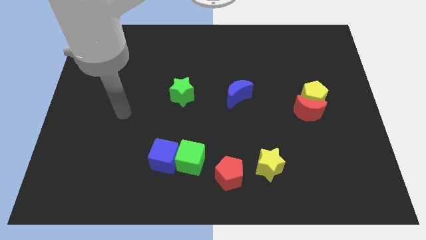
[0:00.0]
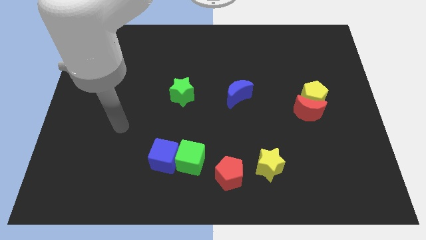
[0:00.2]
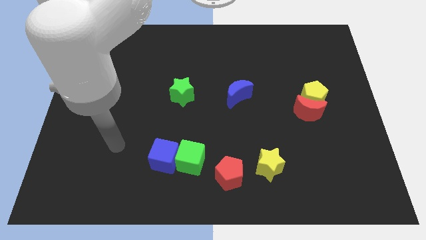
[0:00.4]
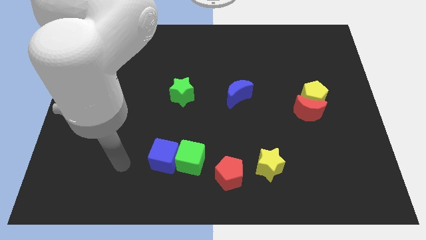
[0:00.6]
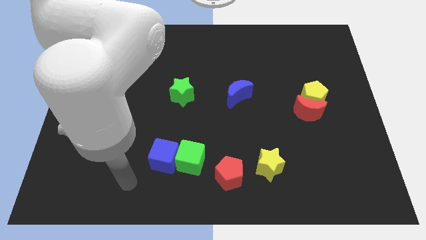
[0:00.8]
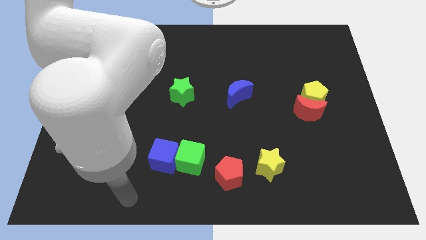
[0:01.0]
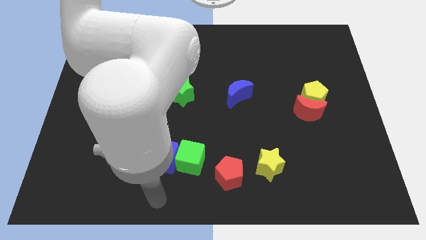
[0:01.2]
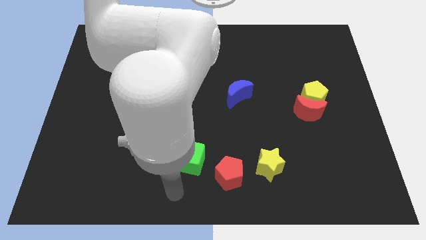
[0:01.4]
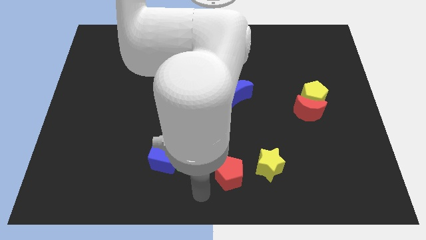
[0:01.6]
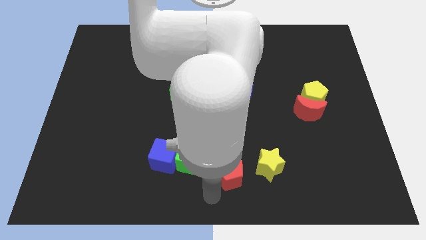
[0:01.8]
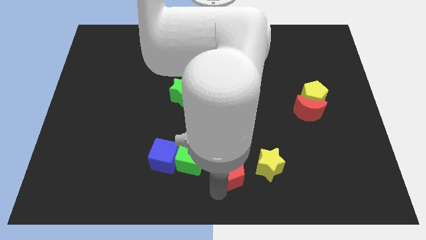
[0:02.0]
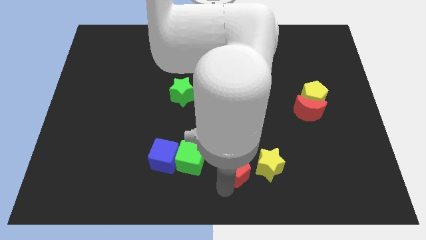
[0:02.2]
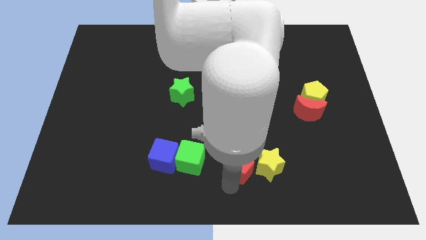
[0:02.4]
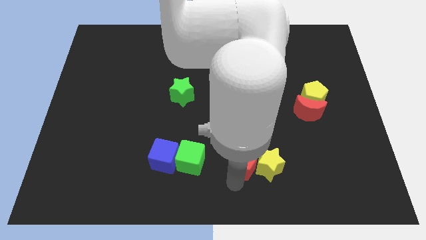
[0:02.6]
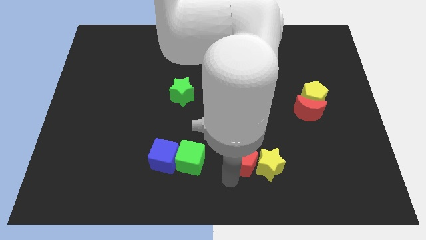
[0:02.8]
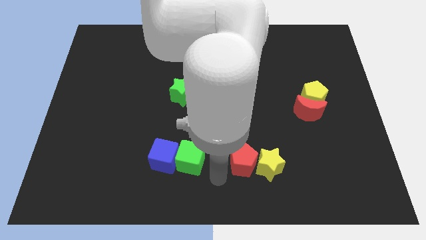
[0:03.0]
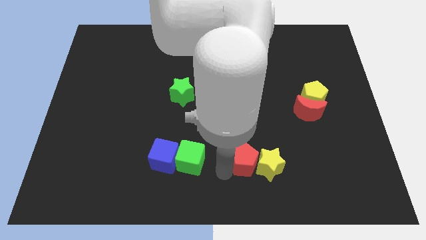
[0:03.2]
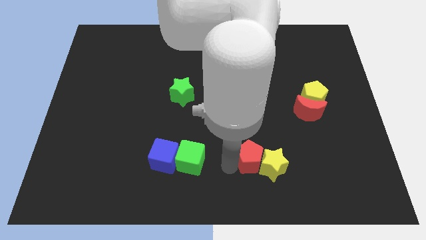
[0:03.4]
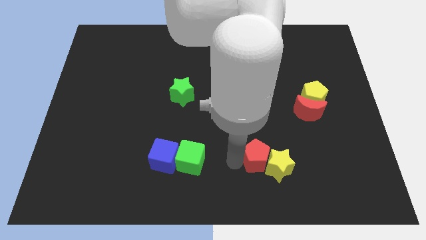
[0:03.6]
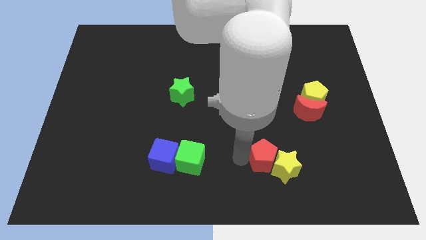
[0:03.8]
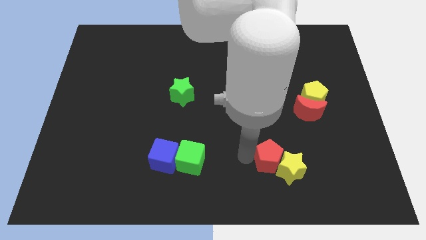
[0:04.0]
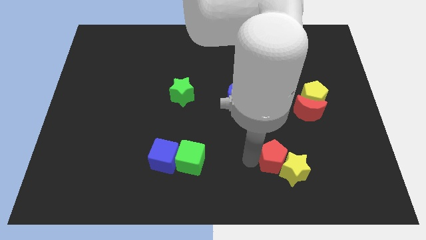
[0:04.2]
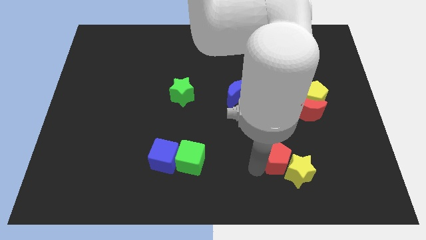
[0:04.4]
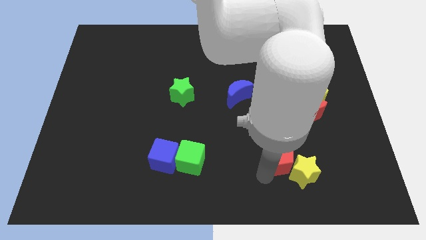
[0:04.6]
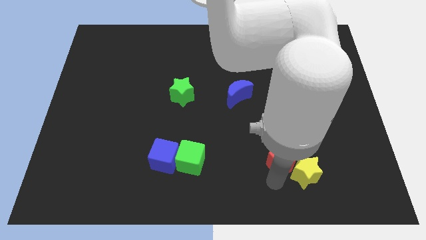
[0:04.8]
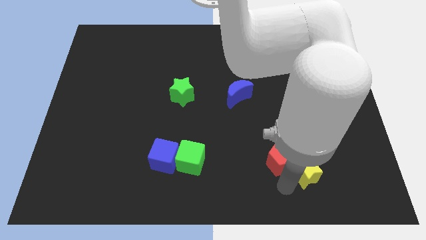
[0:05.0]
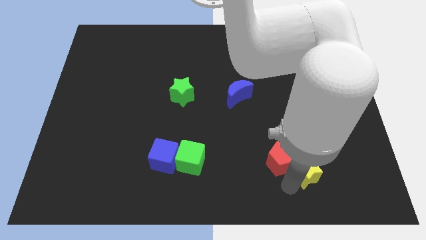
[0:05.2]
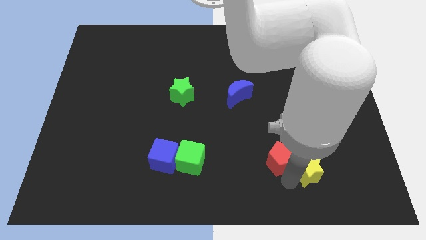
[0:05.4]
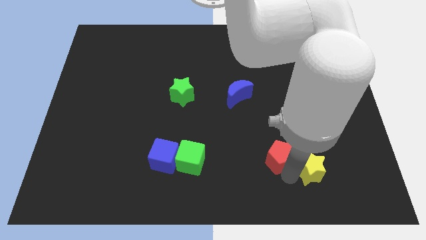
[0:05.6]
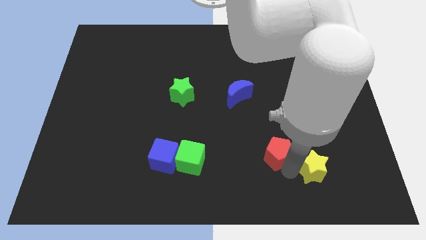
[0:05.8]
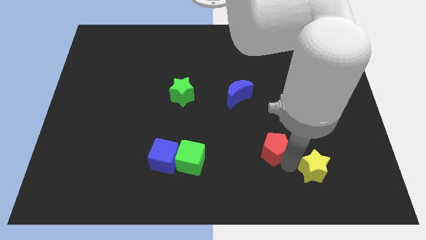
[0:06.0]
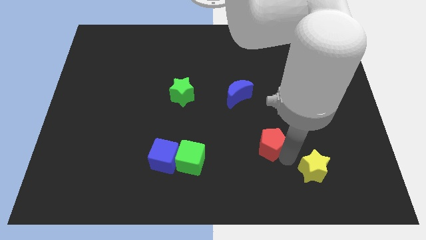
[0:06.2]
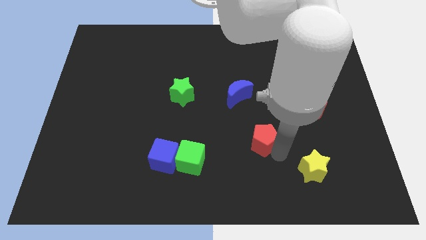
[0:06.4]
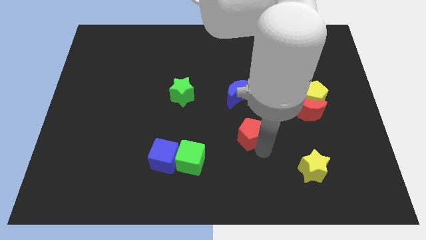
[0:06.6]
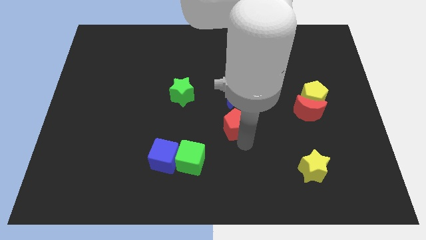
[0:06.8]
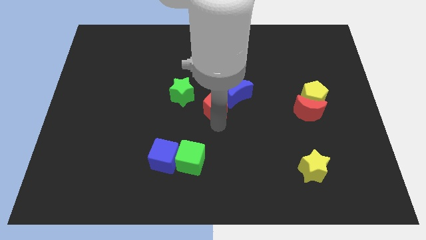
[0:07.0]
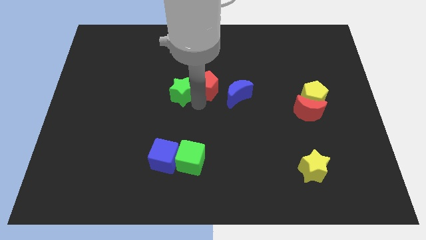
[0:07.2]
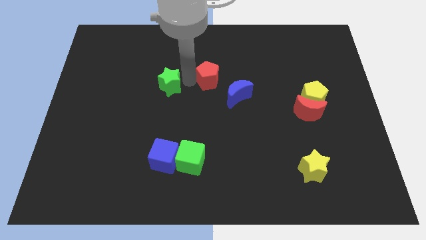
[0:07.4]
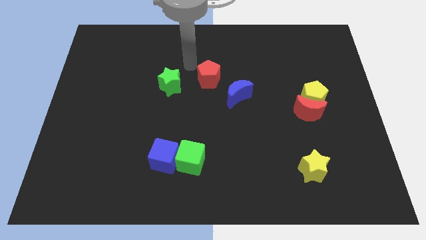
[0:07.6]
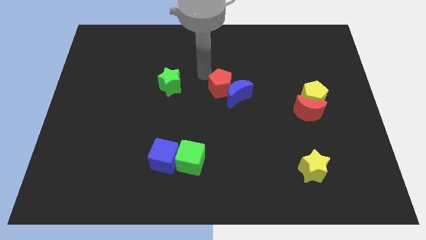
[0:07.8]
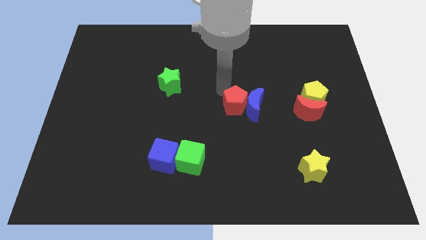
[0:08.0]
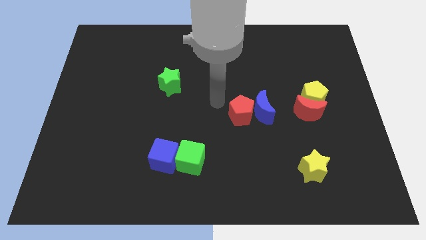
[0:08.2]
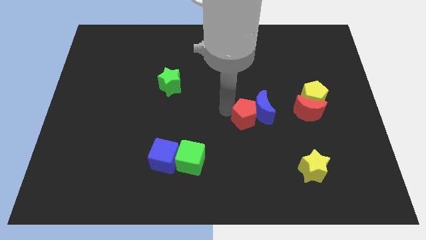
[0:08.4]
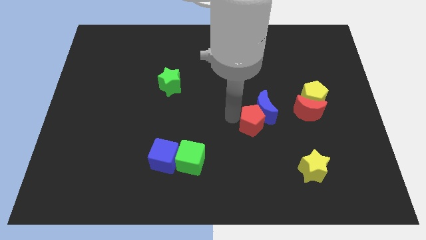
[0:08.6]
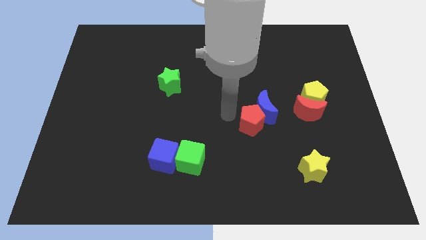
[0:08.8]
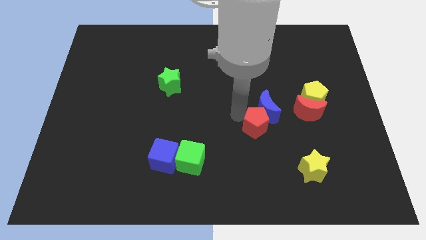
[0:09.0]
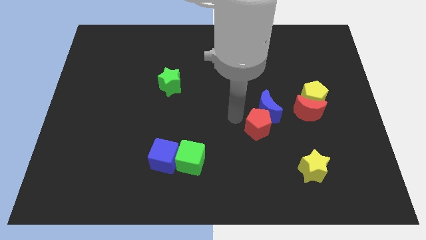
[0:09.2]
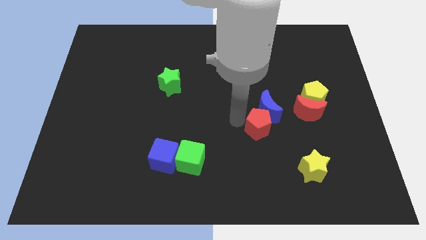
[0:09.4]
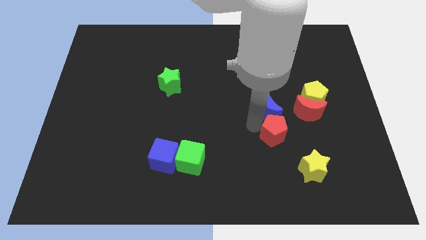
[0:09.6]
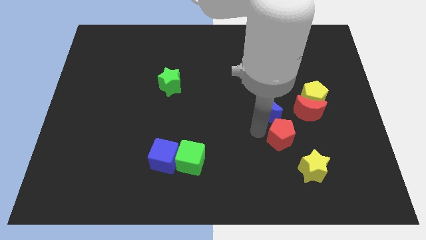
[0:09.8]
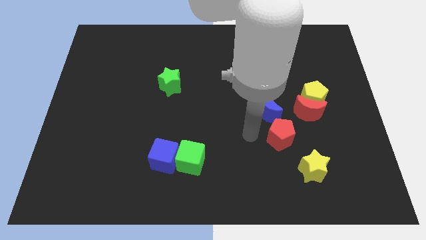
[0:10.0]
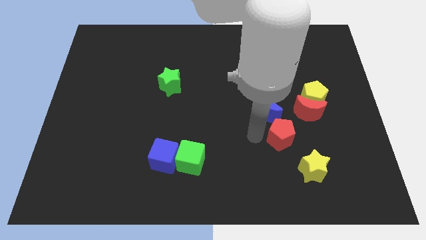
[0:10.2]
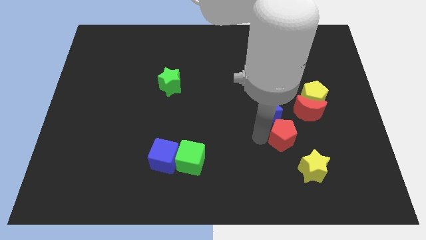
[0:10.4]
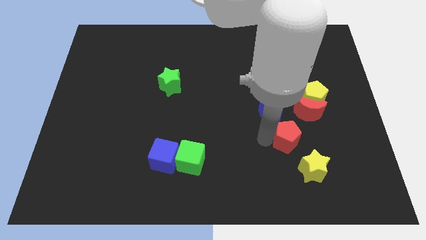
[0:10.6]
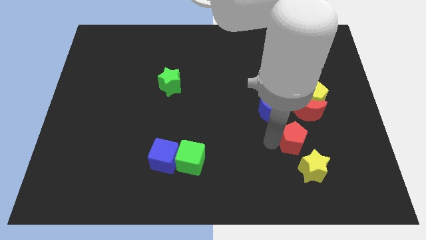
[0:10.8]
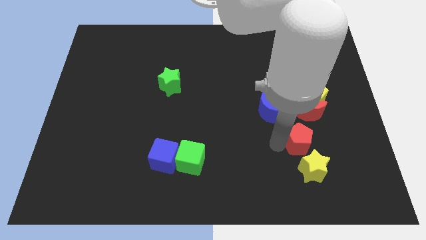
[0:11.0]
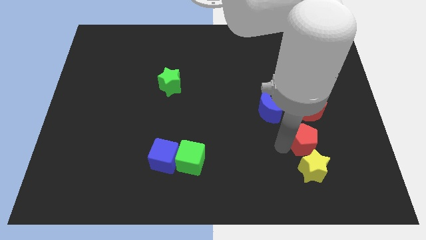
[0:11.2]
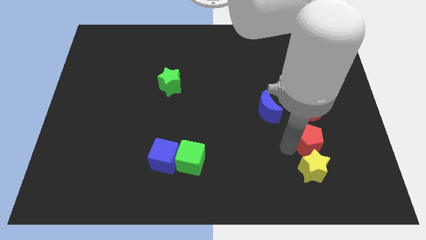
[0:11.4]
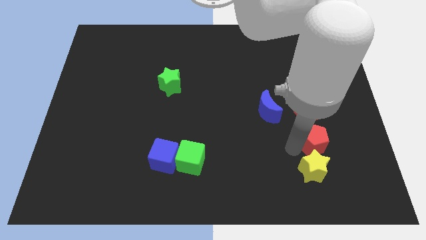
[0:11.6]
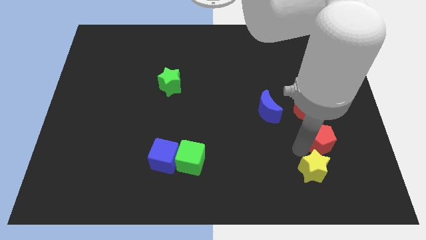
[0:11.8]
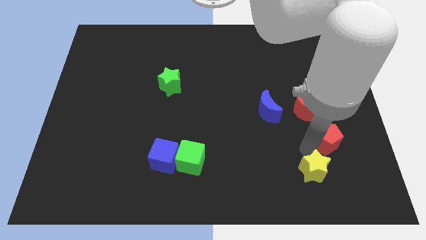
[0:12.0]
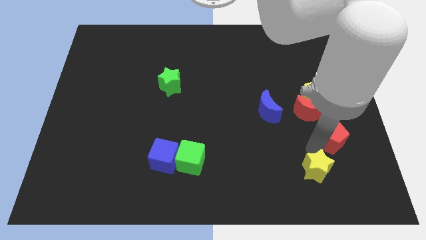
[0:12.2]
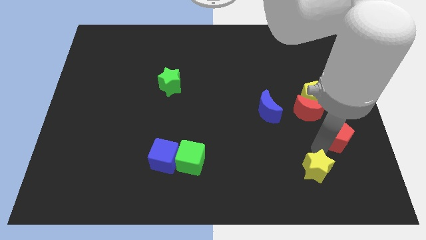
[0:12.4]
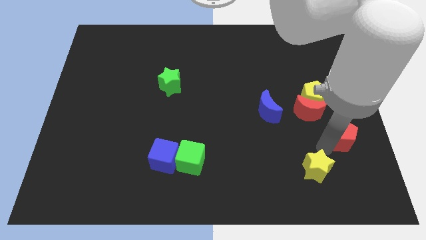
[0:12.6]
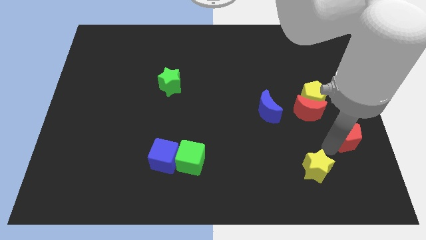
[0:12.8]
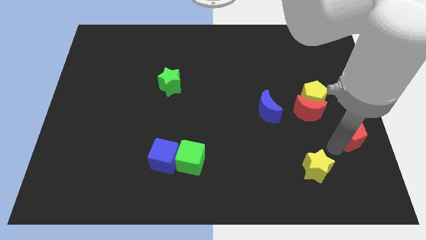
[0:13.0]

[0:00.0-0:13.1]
move the red pentagon to the center right
